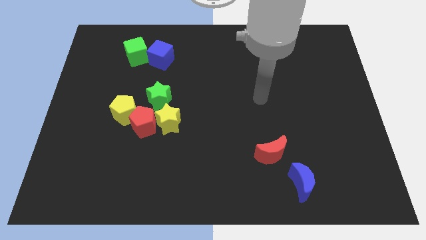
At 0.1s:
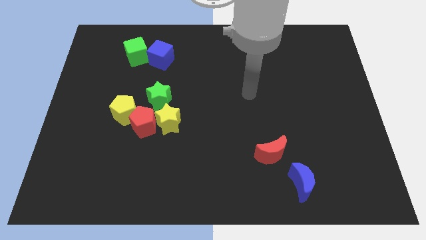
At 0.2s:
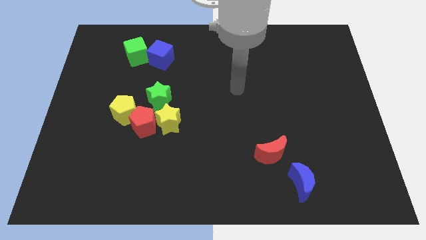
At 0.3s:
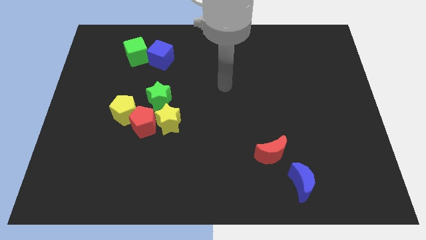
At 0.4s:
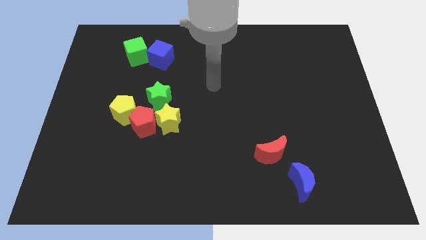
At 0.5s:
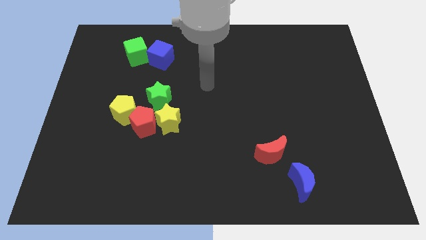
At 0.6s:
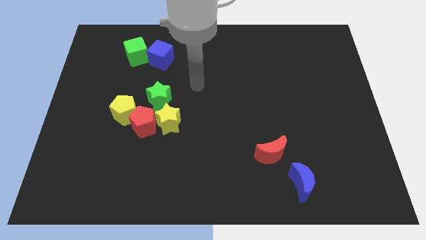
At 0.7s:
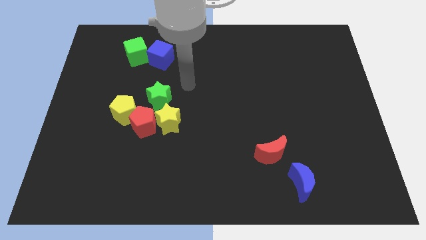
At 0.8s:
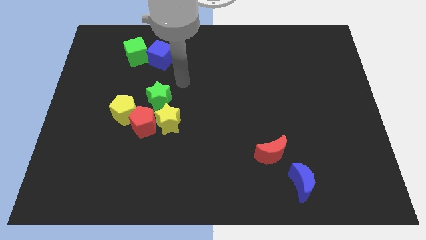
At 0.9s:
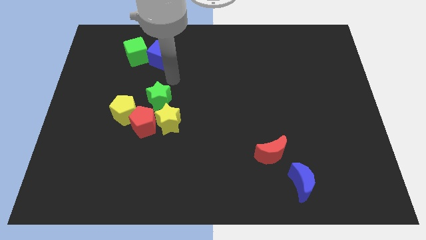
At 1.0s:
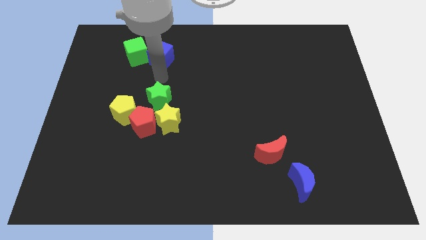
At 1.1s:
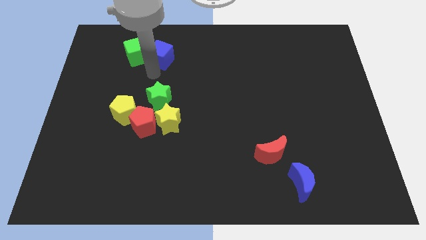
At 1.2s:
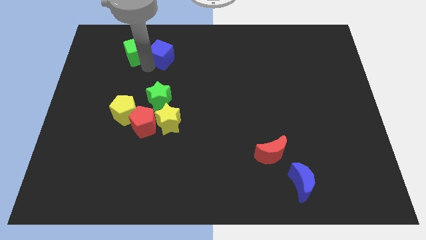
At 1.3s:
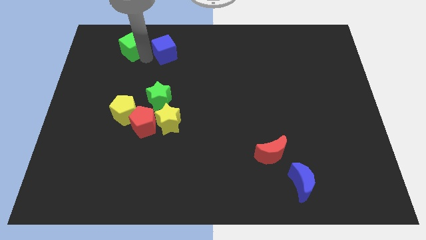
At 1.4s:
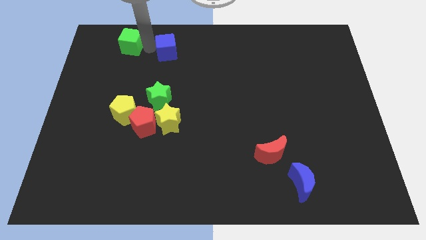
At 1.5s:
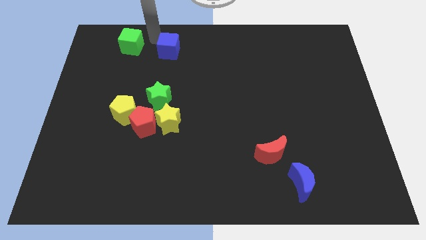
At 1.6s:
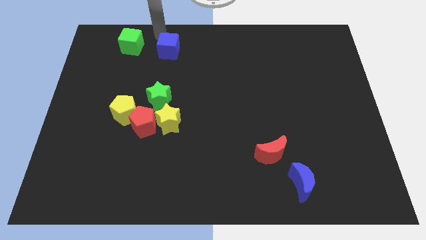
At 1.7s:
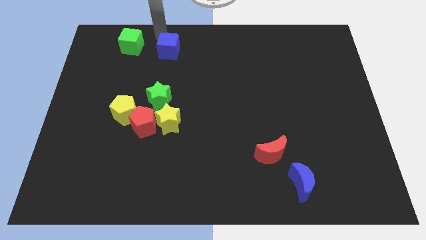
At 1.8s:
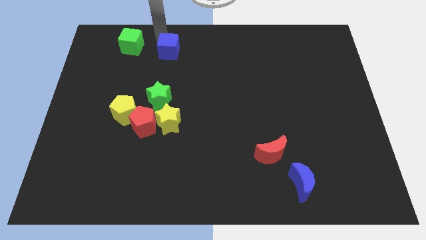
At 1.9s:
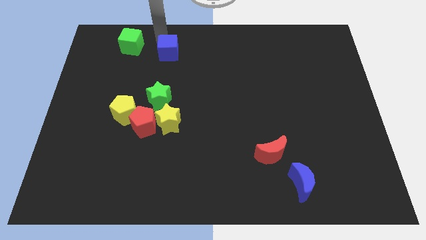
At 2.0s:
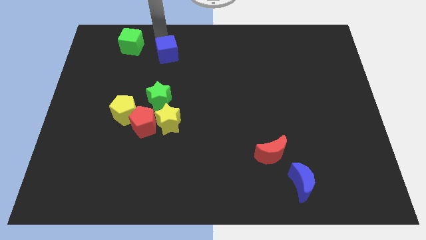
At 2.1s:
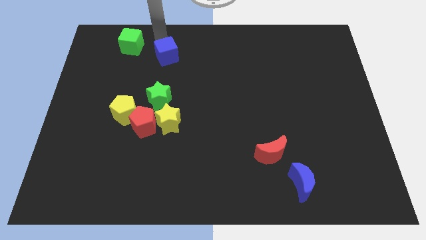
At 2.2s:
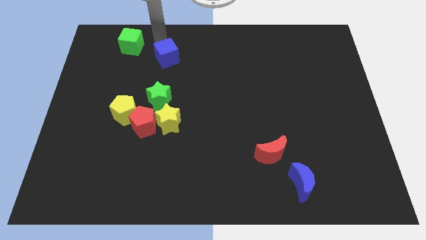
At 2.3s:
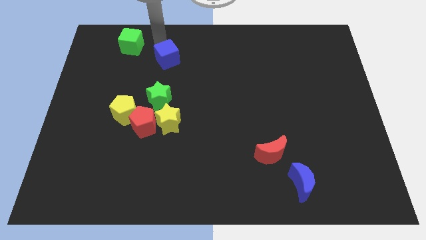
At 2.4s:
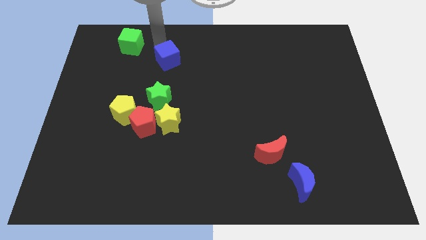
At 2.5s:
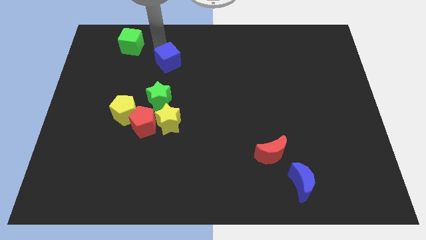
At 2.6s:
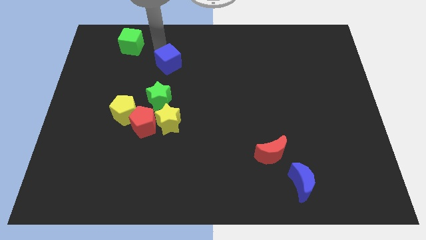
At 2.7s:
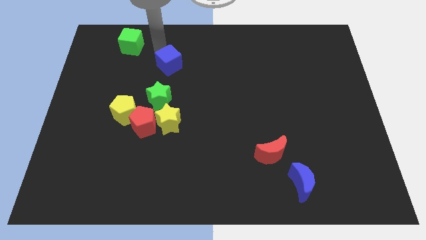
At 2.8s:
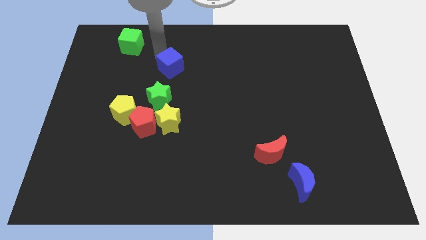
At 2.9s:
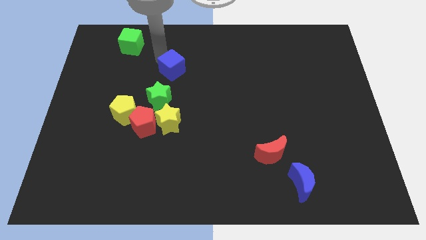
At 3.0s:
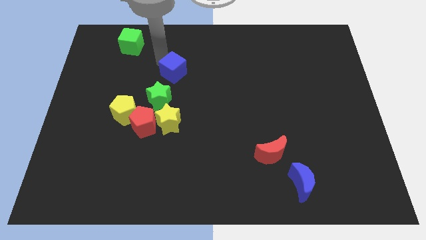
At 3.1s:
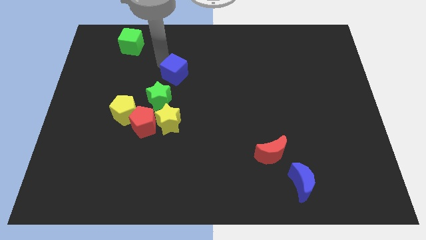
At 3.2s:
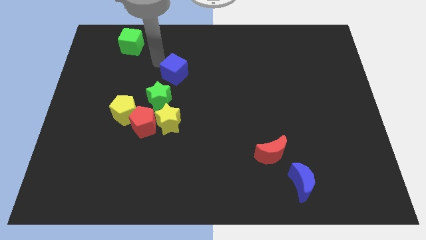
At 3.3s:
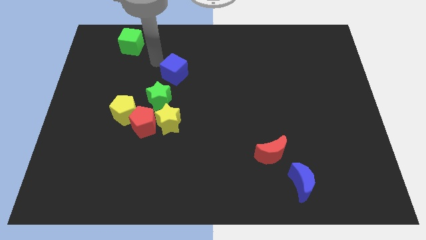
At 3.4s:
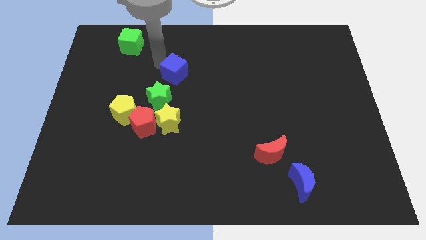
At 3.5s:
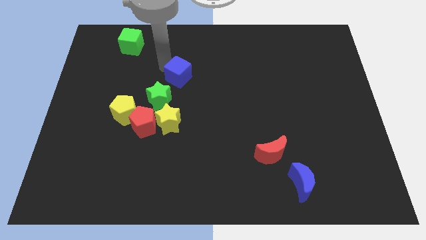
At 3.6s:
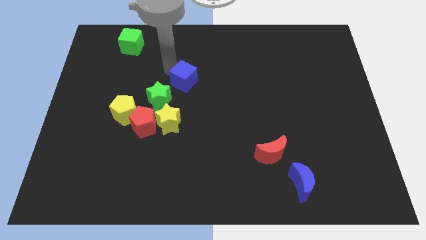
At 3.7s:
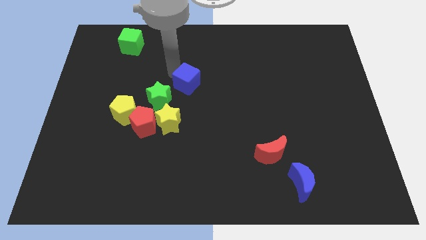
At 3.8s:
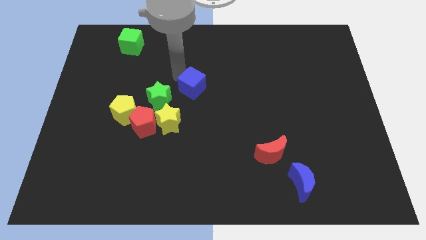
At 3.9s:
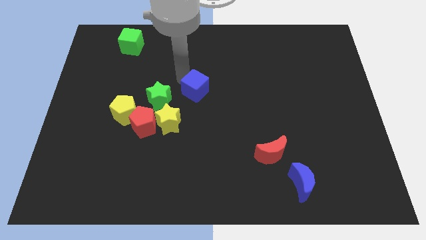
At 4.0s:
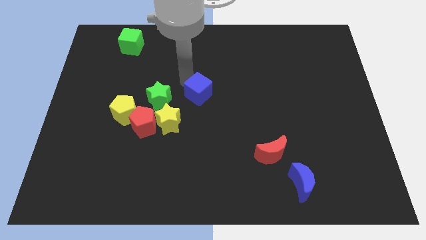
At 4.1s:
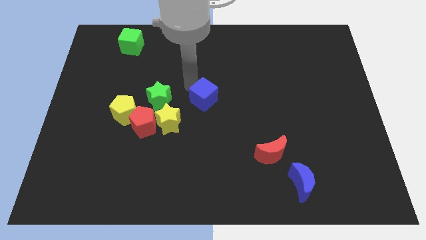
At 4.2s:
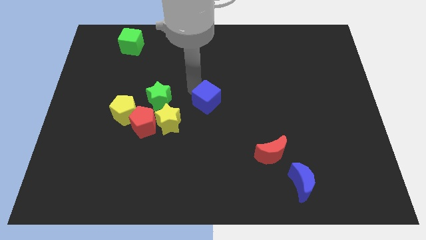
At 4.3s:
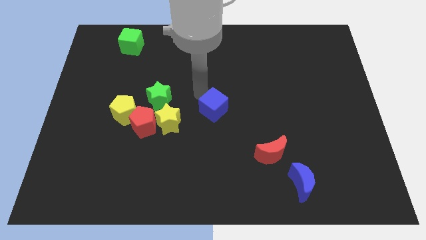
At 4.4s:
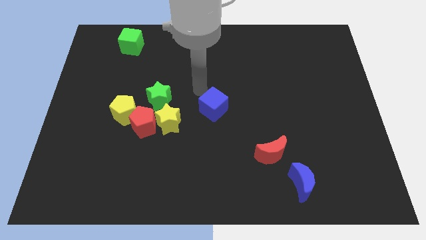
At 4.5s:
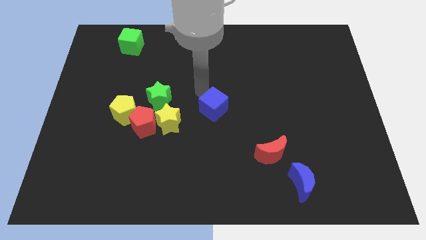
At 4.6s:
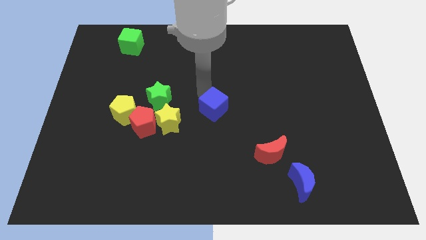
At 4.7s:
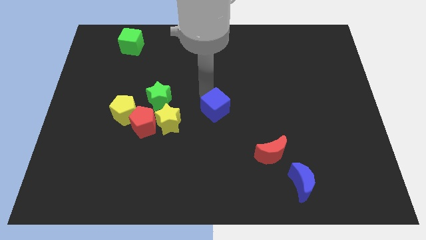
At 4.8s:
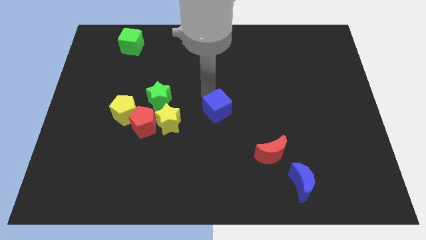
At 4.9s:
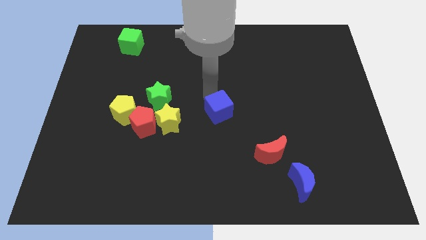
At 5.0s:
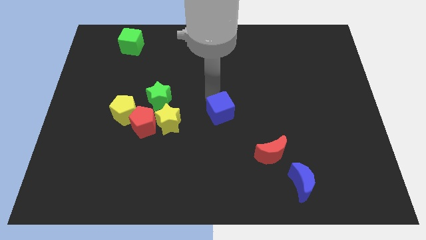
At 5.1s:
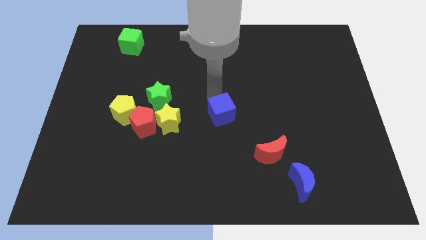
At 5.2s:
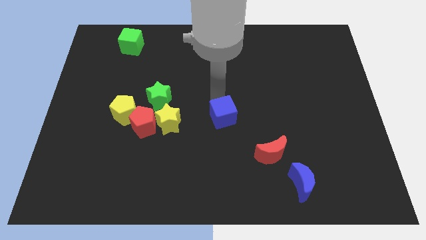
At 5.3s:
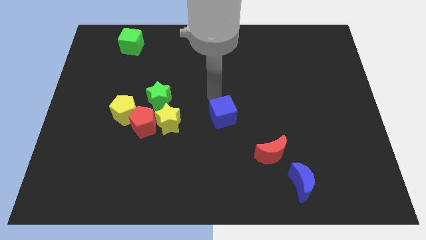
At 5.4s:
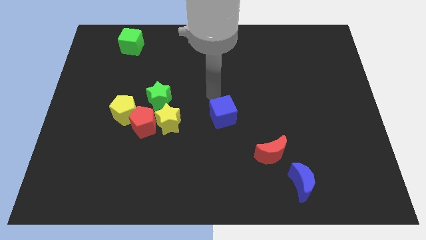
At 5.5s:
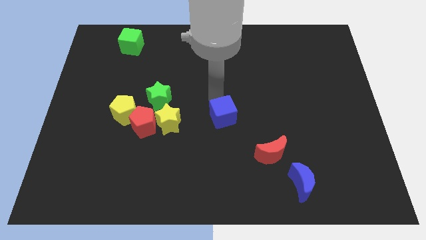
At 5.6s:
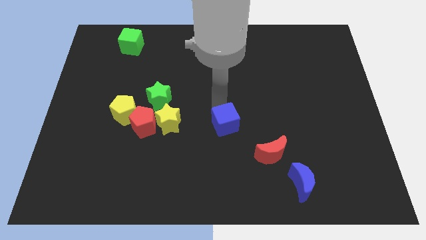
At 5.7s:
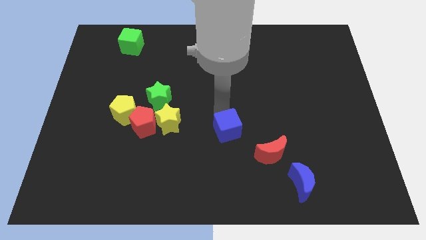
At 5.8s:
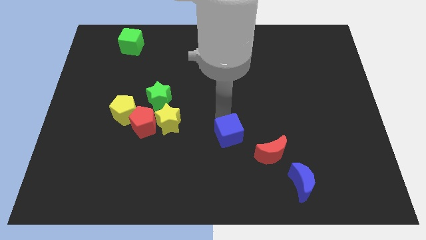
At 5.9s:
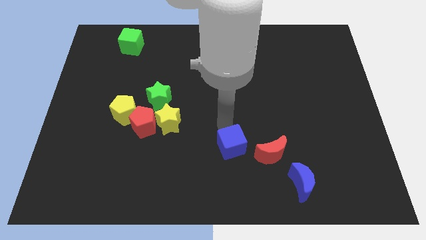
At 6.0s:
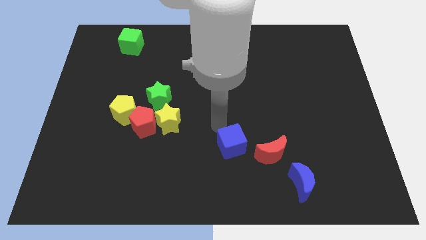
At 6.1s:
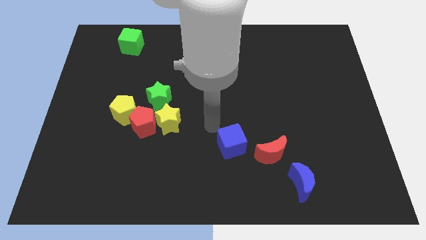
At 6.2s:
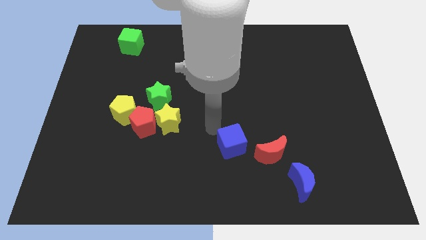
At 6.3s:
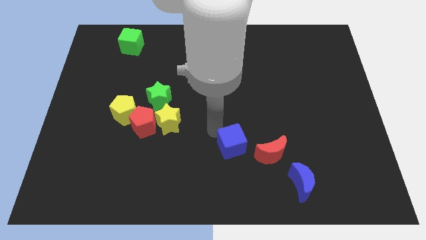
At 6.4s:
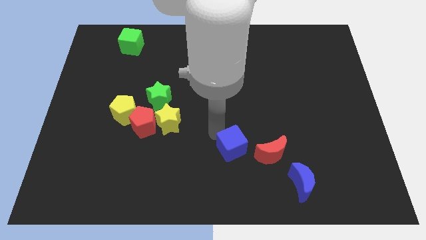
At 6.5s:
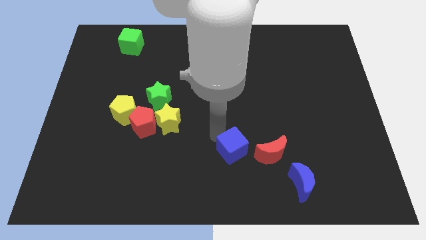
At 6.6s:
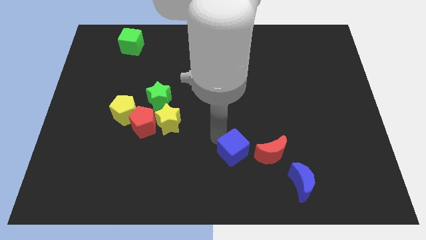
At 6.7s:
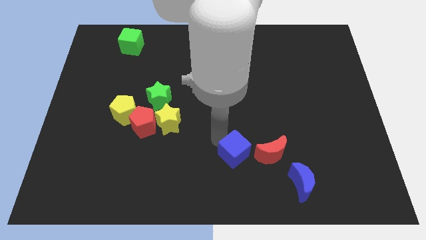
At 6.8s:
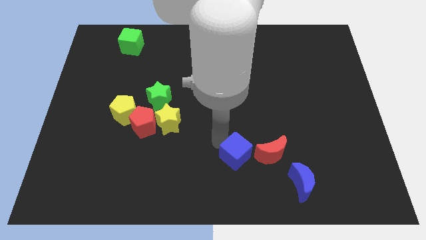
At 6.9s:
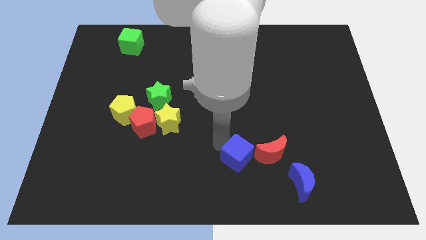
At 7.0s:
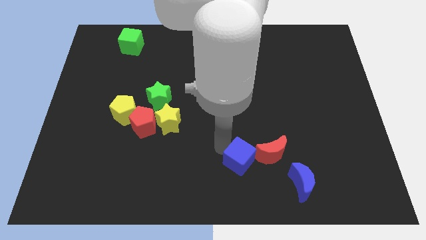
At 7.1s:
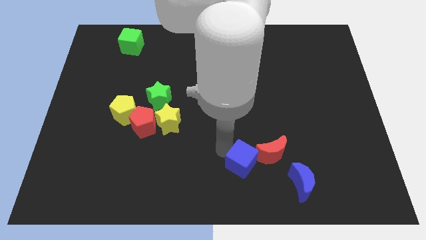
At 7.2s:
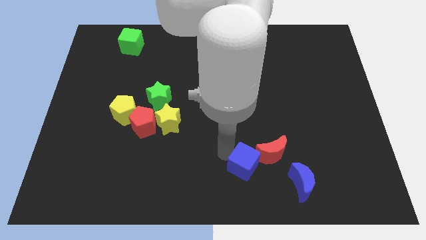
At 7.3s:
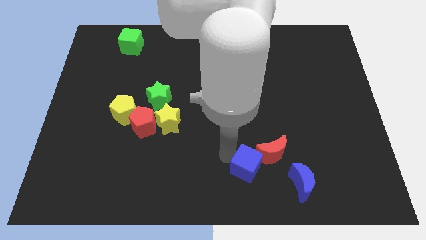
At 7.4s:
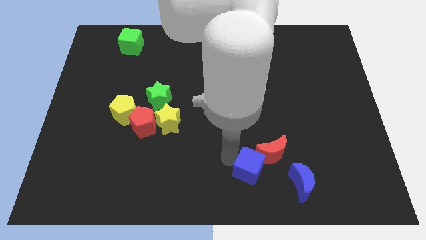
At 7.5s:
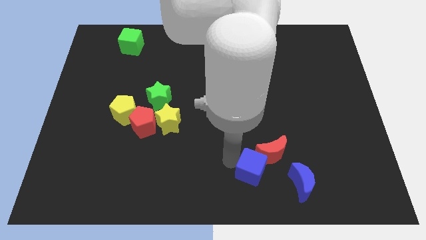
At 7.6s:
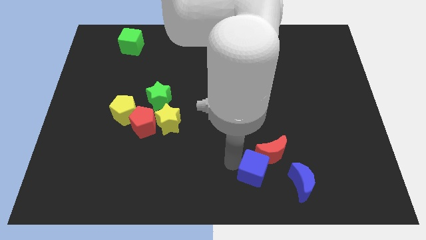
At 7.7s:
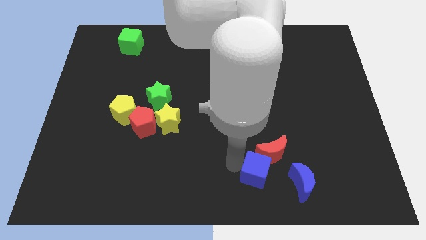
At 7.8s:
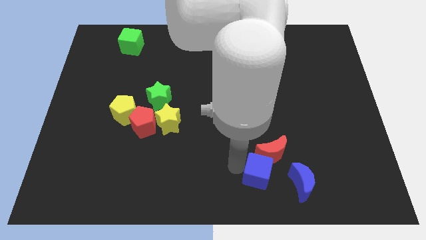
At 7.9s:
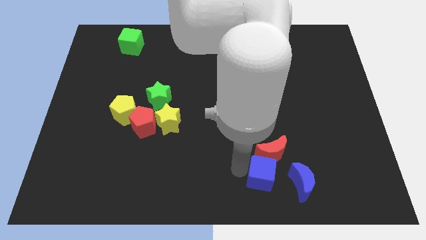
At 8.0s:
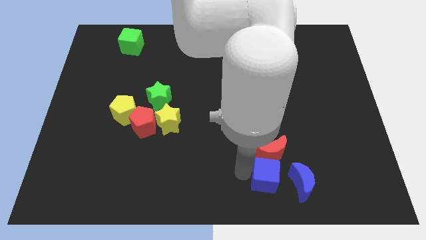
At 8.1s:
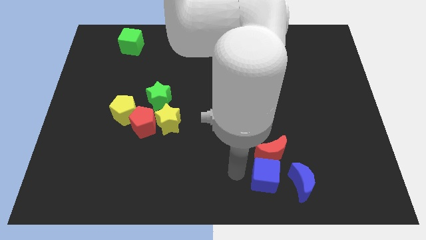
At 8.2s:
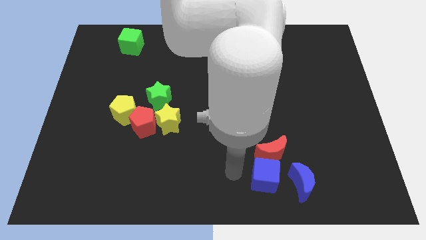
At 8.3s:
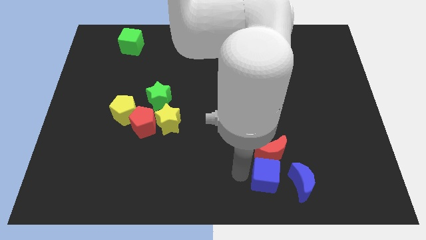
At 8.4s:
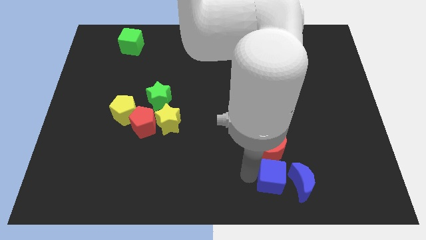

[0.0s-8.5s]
move the blue cube to the blue moon
